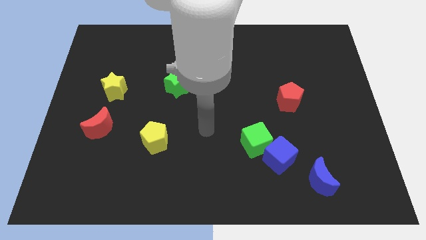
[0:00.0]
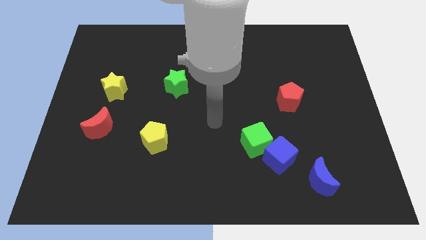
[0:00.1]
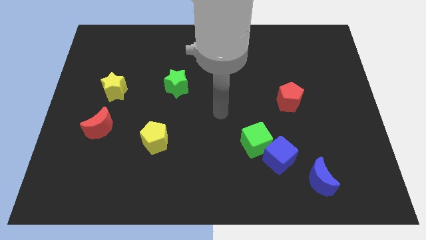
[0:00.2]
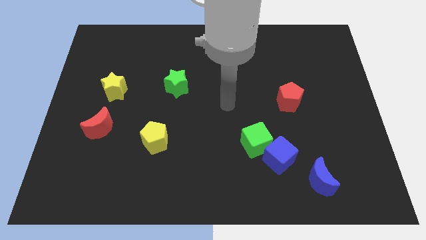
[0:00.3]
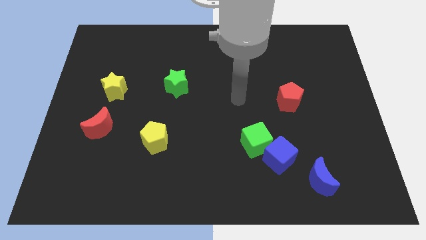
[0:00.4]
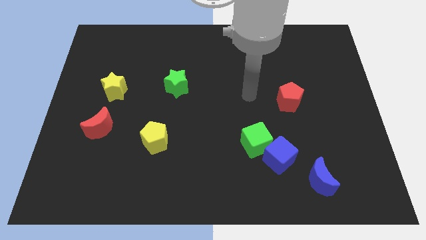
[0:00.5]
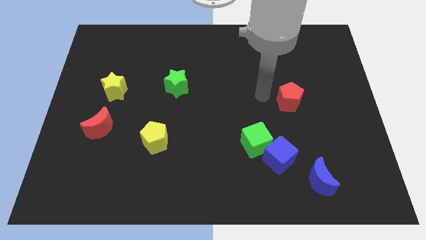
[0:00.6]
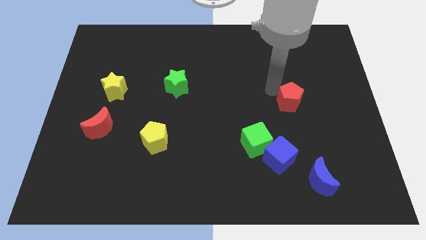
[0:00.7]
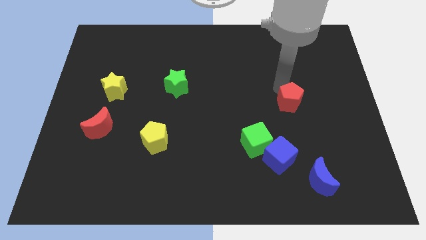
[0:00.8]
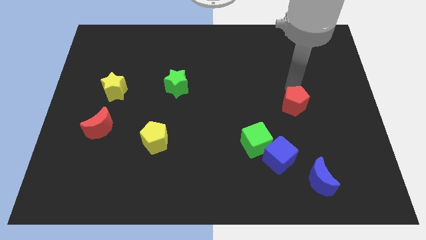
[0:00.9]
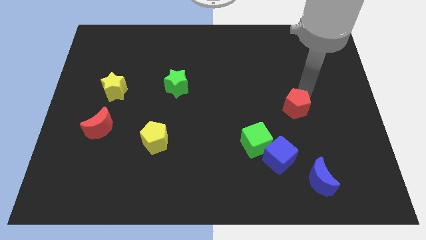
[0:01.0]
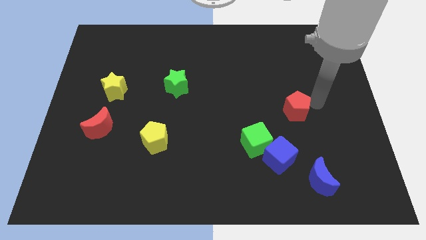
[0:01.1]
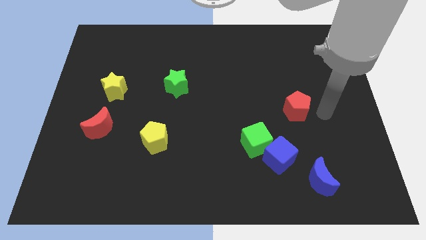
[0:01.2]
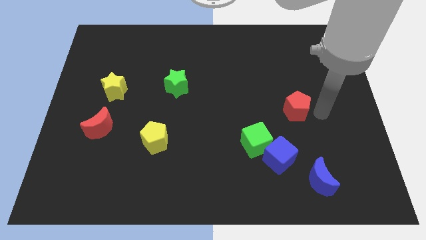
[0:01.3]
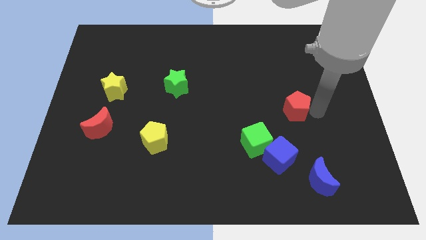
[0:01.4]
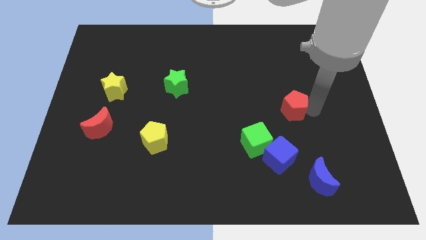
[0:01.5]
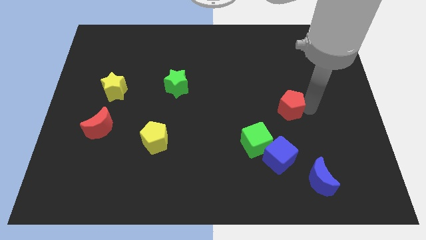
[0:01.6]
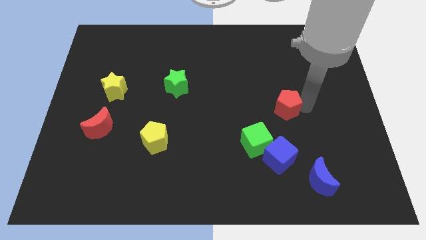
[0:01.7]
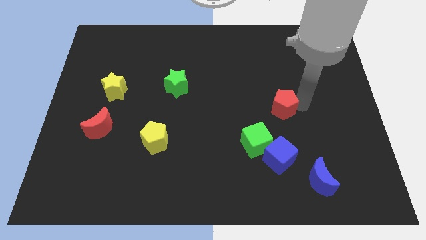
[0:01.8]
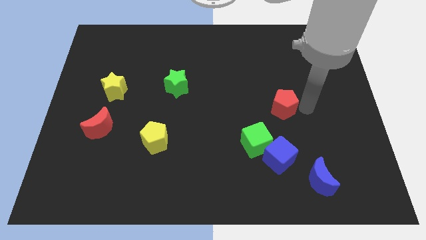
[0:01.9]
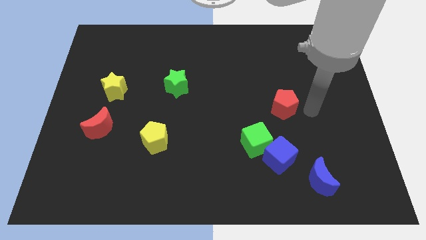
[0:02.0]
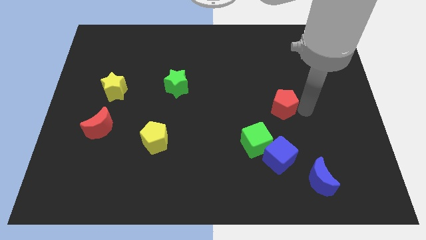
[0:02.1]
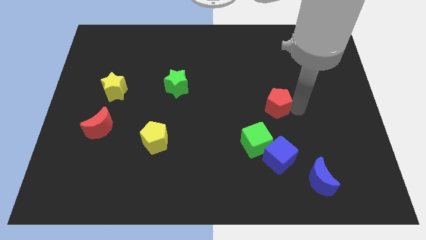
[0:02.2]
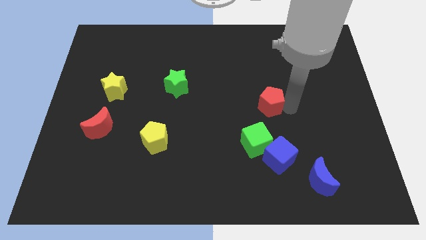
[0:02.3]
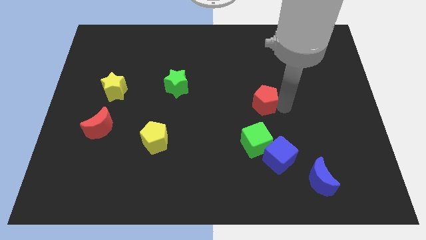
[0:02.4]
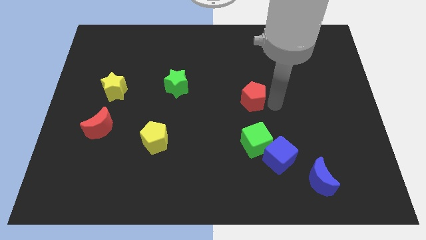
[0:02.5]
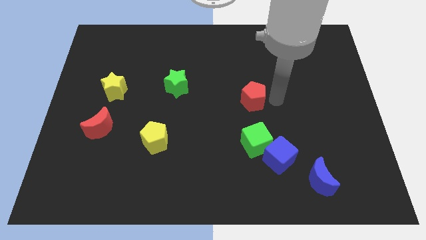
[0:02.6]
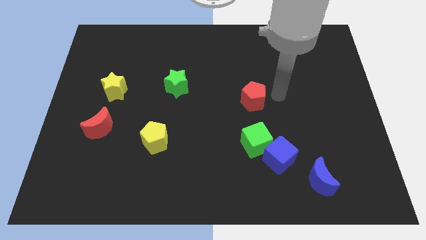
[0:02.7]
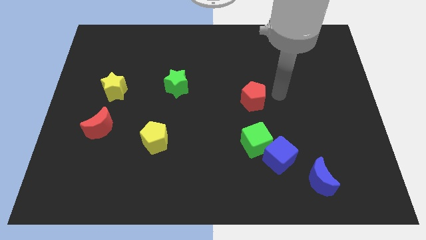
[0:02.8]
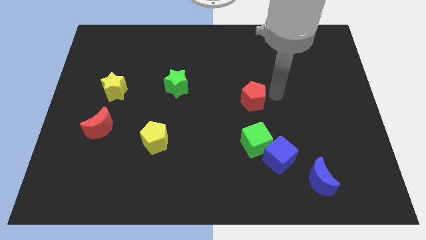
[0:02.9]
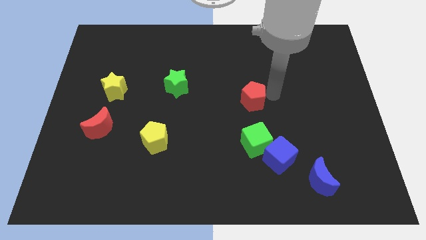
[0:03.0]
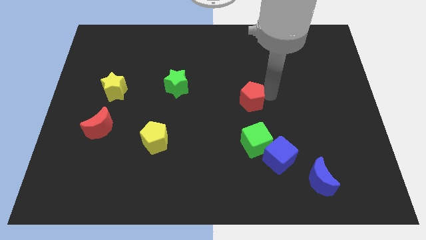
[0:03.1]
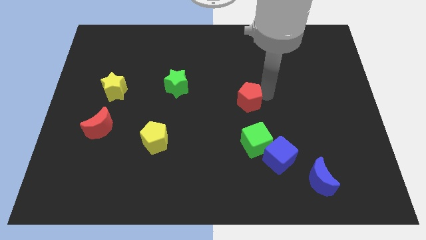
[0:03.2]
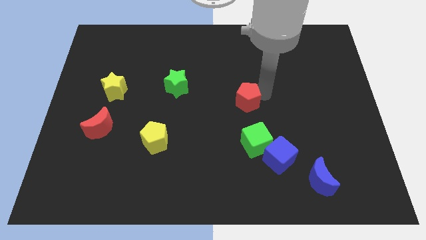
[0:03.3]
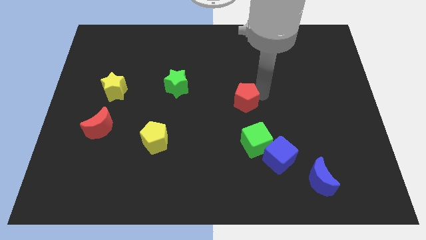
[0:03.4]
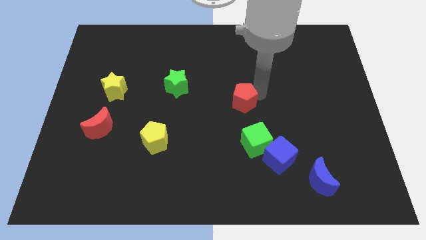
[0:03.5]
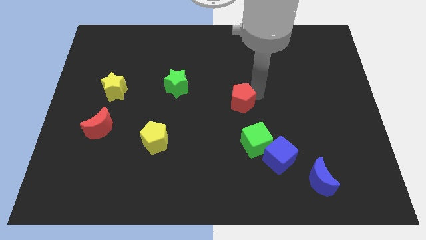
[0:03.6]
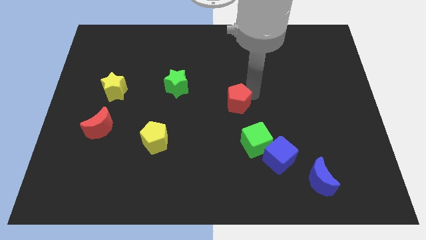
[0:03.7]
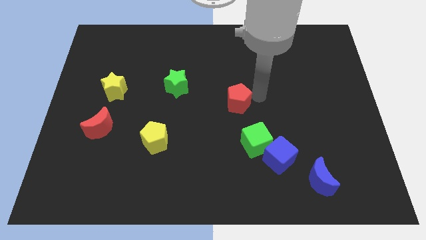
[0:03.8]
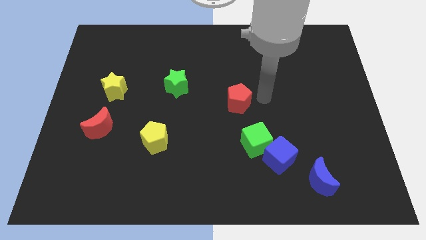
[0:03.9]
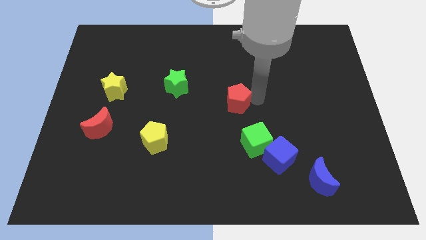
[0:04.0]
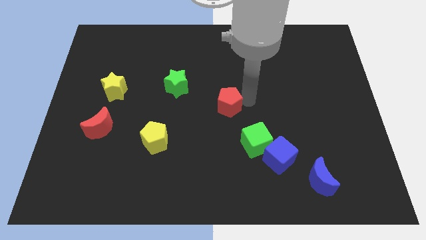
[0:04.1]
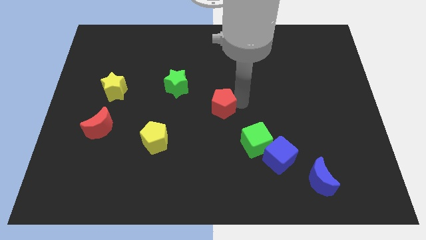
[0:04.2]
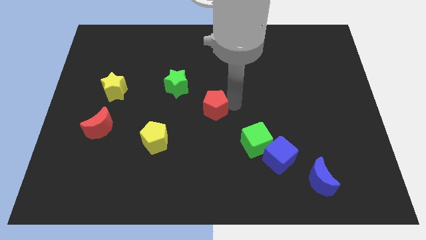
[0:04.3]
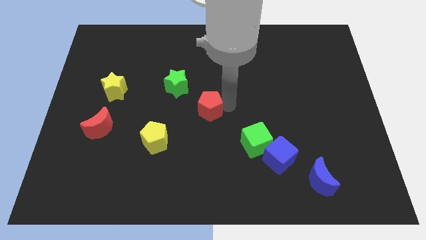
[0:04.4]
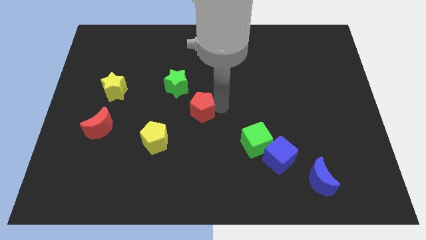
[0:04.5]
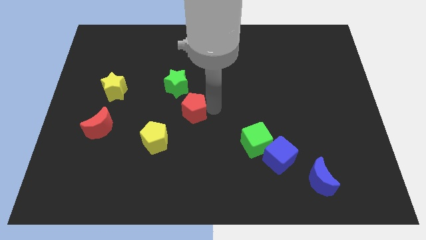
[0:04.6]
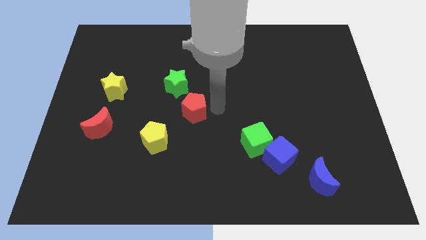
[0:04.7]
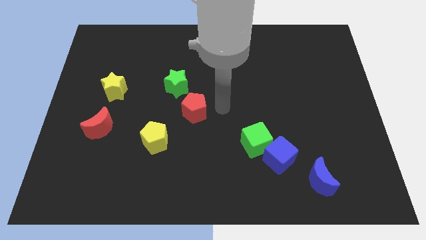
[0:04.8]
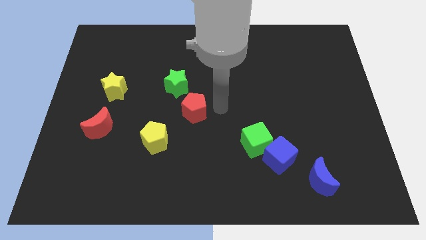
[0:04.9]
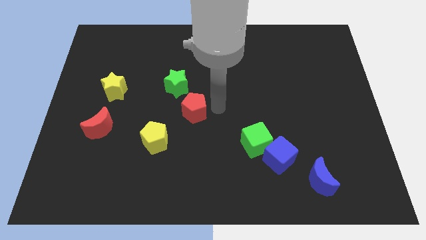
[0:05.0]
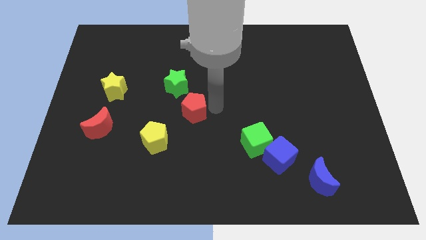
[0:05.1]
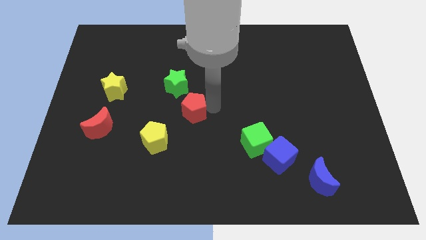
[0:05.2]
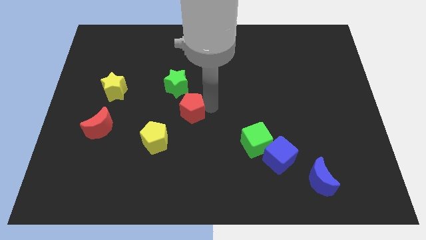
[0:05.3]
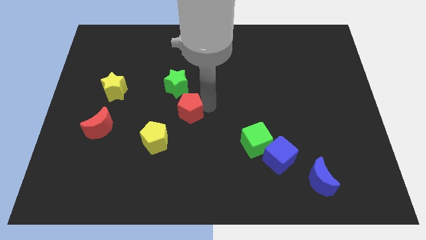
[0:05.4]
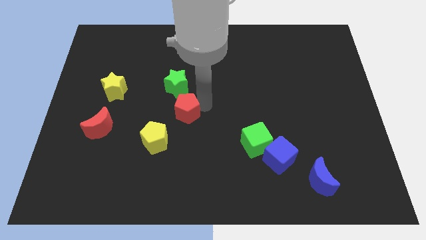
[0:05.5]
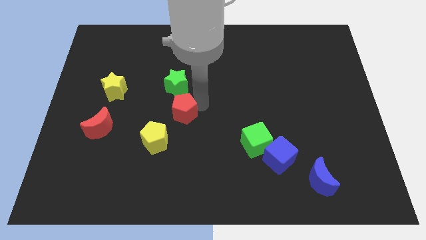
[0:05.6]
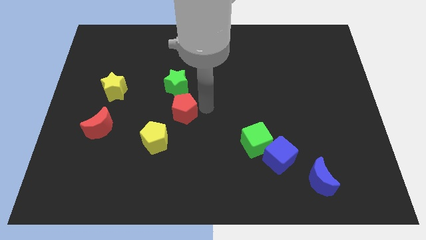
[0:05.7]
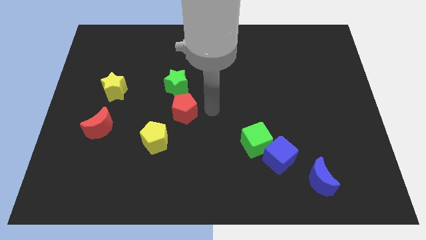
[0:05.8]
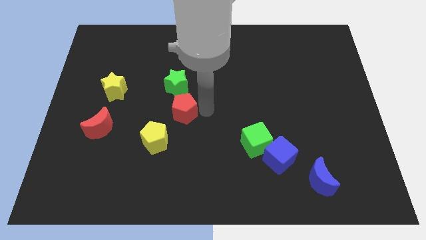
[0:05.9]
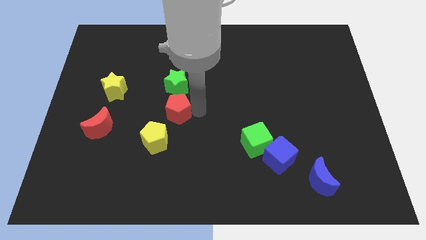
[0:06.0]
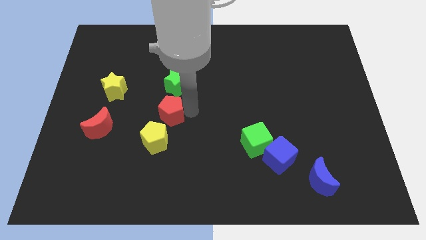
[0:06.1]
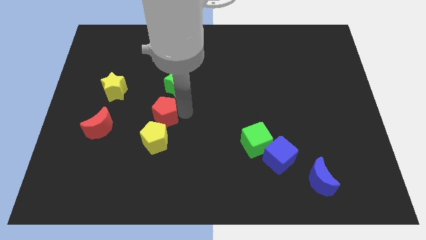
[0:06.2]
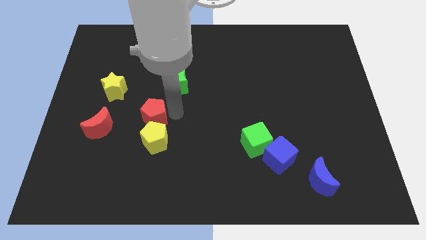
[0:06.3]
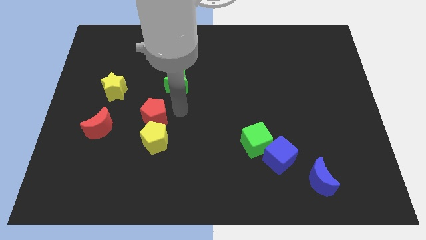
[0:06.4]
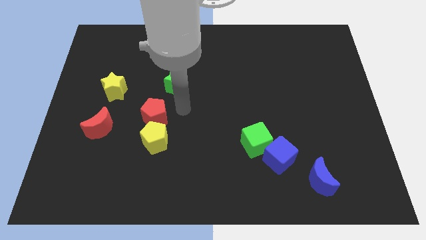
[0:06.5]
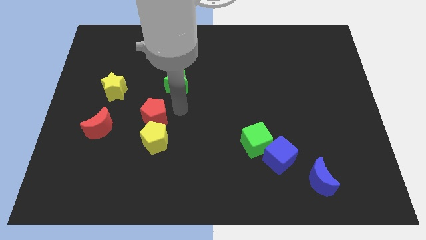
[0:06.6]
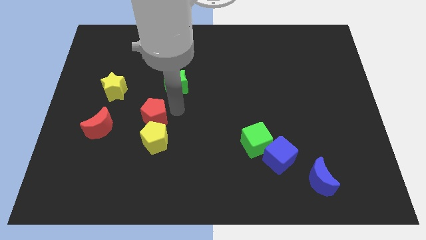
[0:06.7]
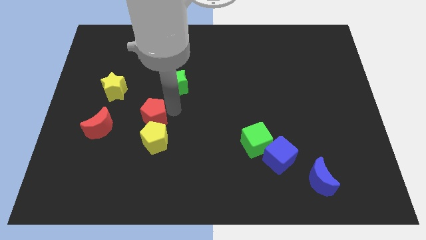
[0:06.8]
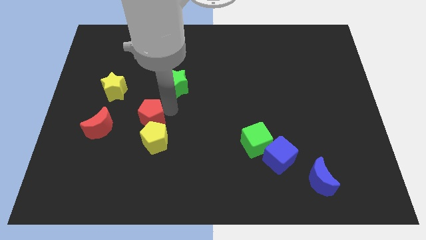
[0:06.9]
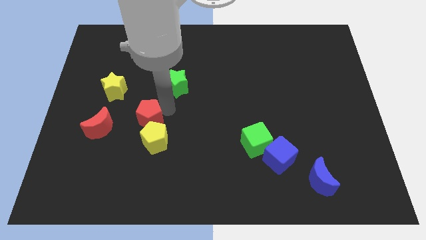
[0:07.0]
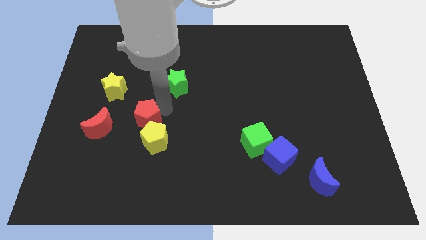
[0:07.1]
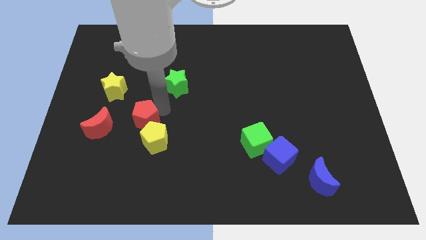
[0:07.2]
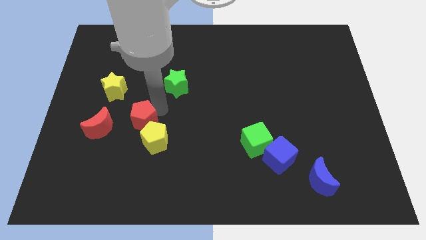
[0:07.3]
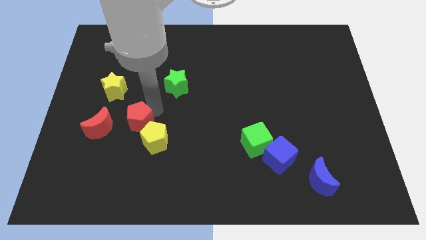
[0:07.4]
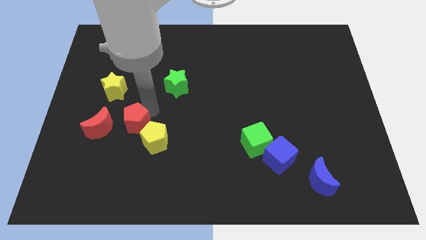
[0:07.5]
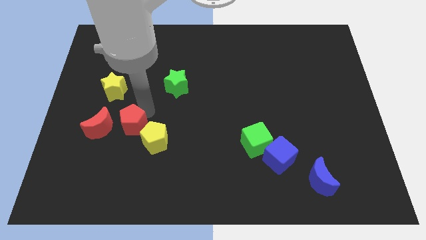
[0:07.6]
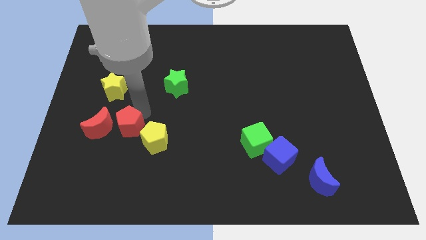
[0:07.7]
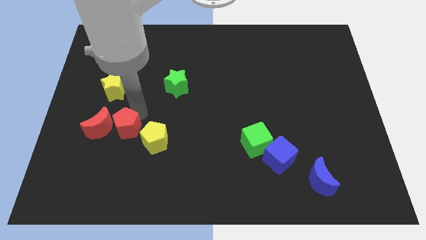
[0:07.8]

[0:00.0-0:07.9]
put the red pentagon to the bottom side of the yellow star
